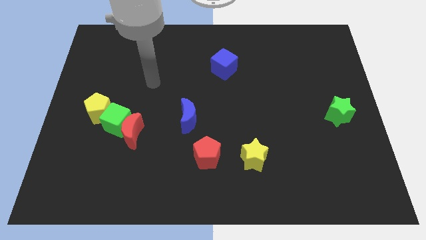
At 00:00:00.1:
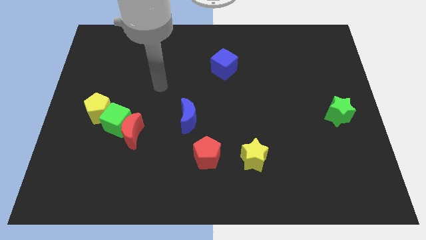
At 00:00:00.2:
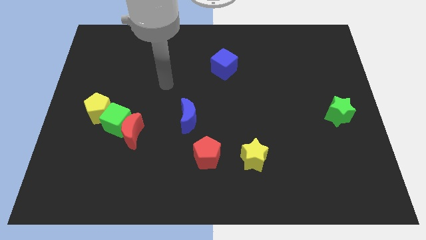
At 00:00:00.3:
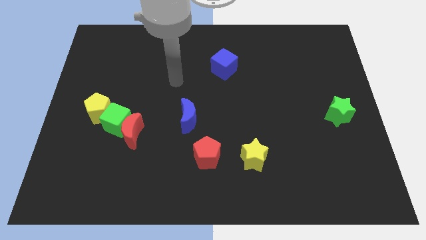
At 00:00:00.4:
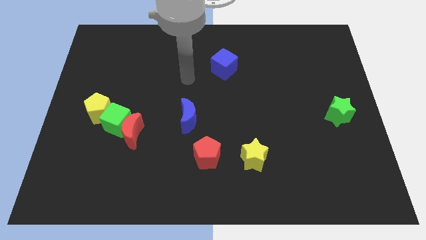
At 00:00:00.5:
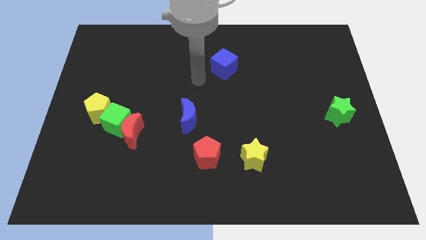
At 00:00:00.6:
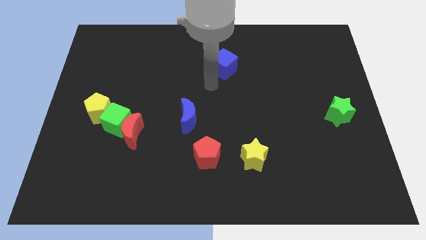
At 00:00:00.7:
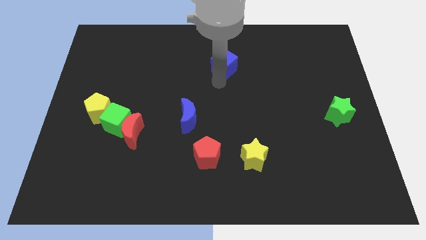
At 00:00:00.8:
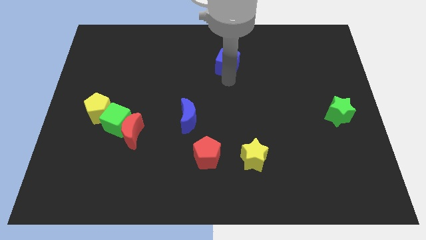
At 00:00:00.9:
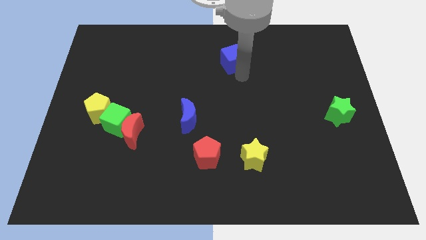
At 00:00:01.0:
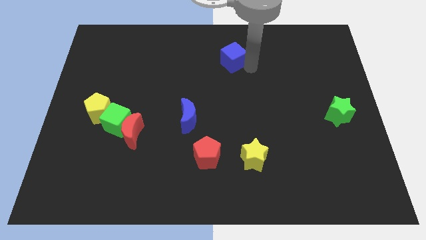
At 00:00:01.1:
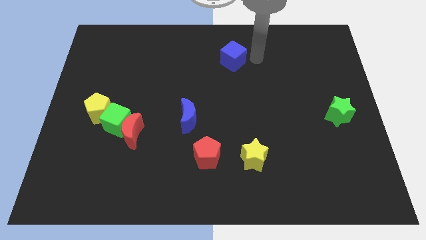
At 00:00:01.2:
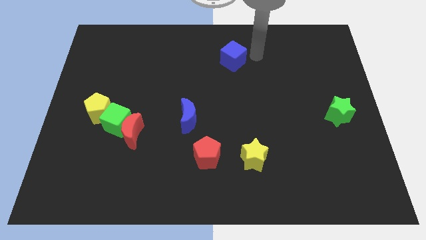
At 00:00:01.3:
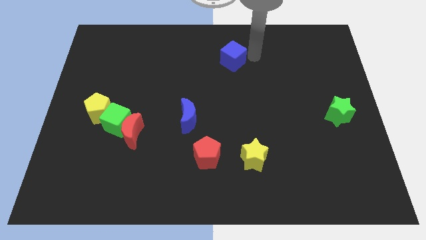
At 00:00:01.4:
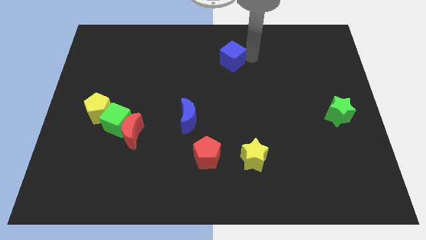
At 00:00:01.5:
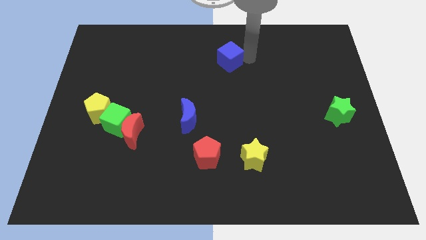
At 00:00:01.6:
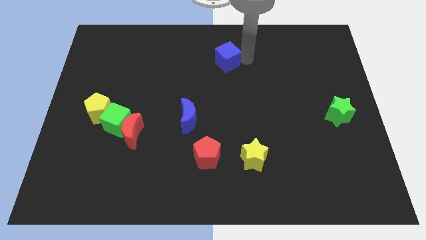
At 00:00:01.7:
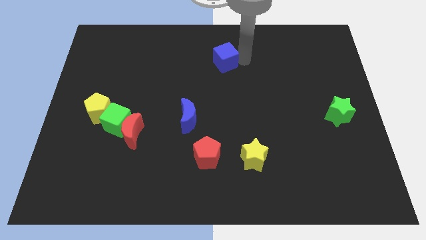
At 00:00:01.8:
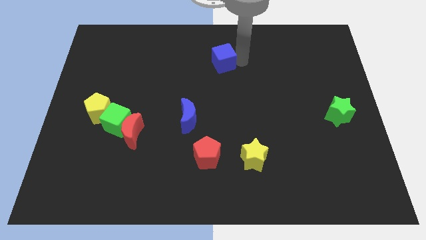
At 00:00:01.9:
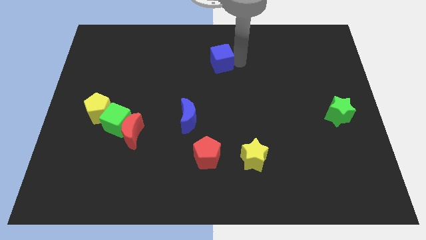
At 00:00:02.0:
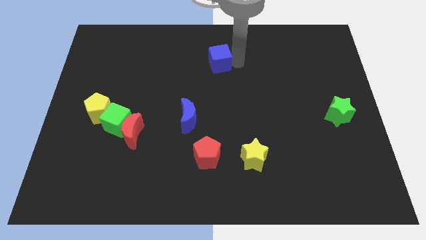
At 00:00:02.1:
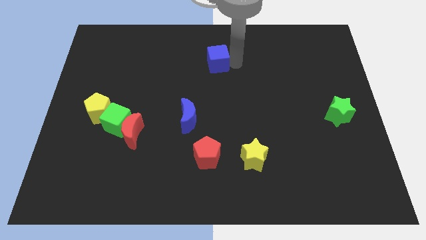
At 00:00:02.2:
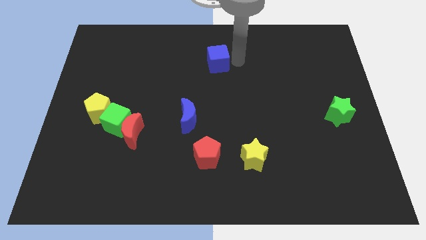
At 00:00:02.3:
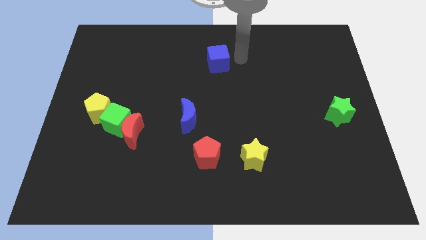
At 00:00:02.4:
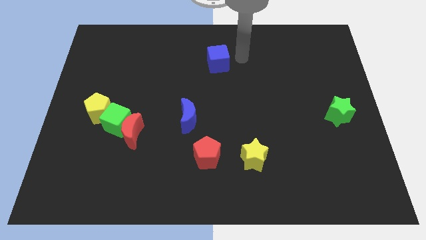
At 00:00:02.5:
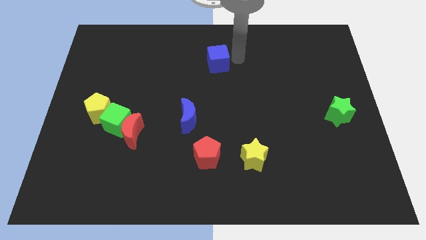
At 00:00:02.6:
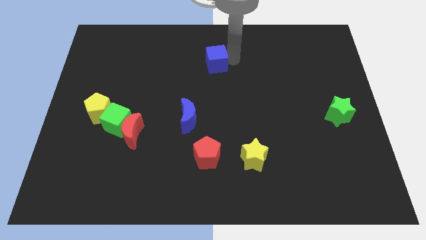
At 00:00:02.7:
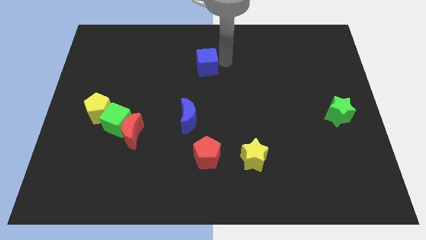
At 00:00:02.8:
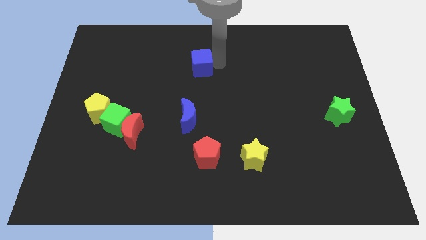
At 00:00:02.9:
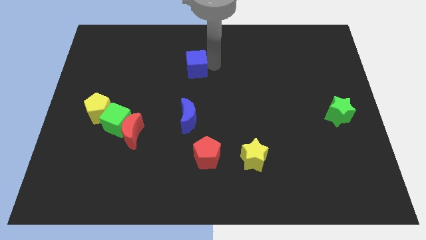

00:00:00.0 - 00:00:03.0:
push the blue cube left slightly

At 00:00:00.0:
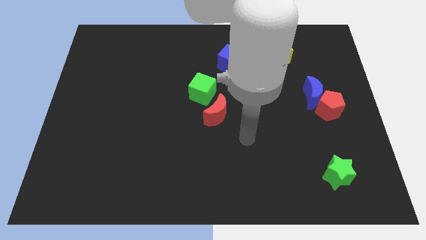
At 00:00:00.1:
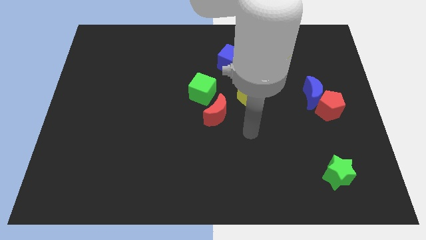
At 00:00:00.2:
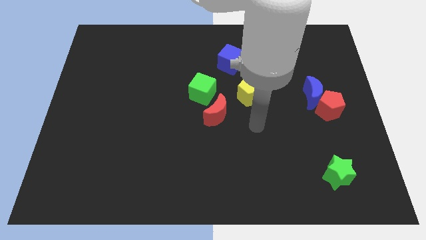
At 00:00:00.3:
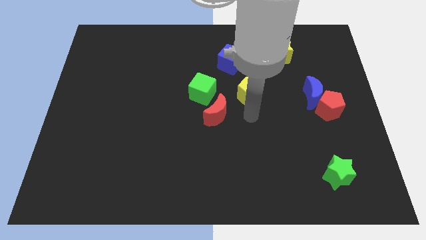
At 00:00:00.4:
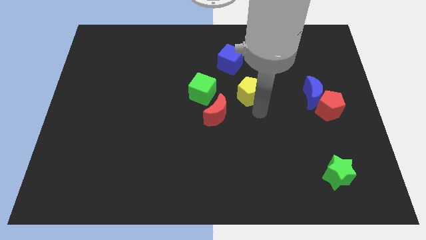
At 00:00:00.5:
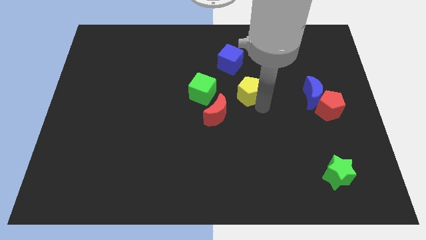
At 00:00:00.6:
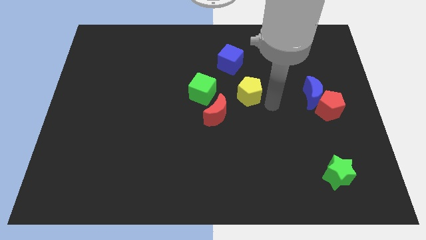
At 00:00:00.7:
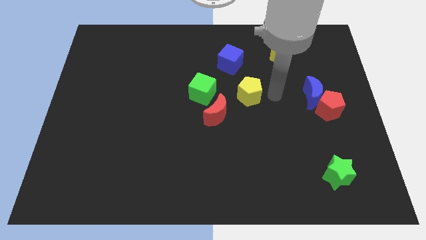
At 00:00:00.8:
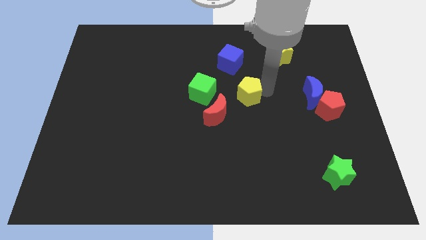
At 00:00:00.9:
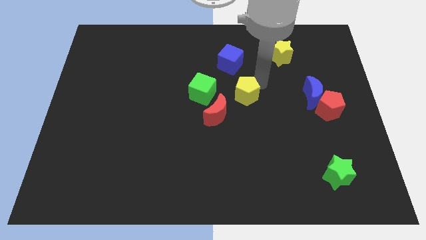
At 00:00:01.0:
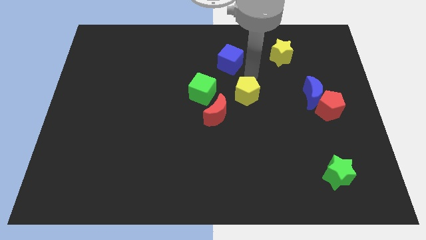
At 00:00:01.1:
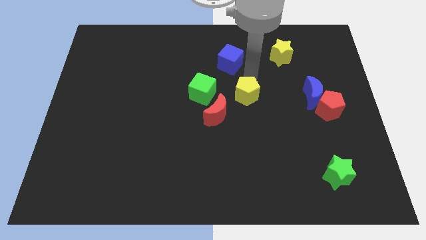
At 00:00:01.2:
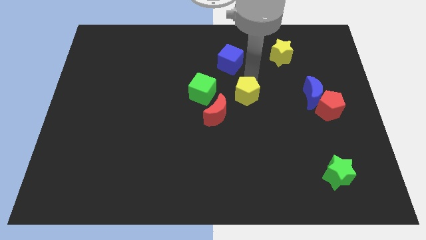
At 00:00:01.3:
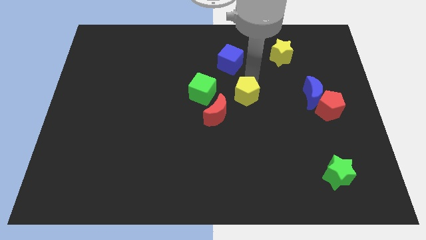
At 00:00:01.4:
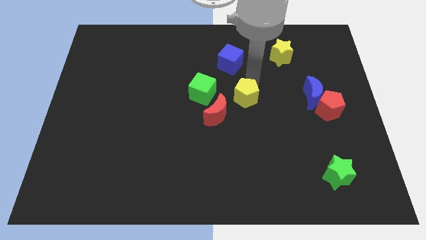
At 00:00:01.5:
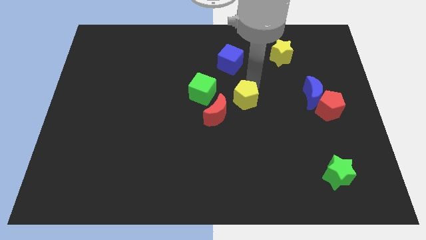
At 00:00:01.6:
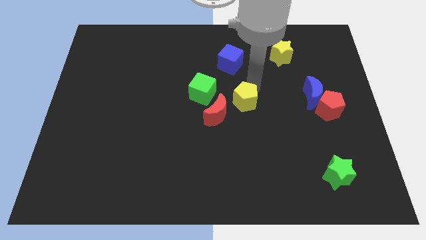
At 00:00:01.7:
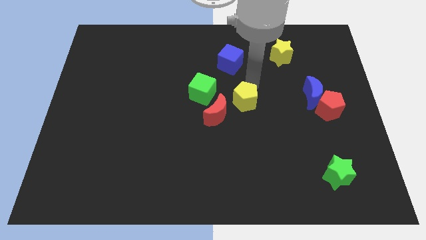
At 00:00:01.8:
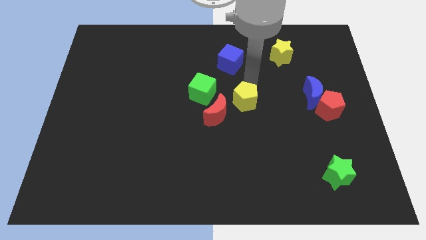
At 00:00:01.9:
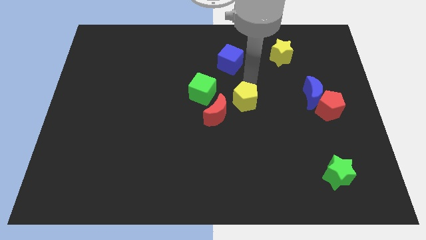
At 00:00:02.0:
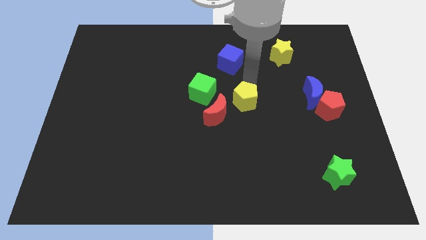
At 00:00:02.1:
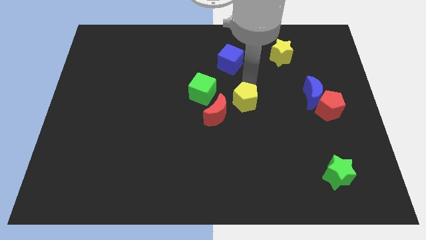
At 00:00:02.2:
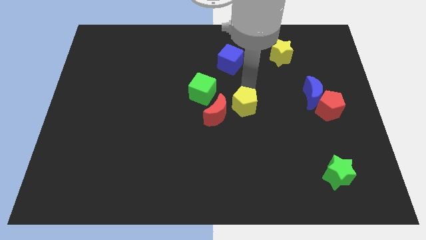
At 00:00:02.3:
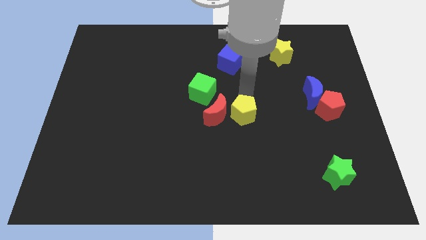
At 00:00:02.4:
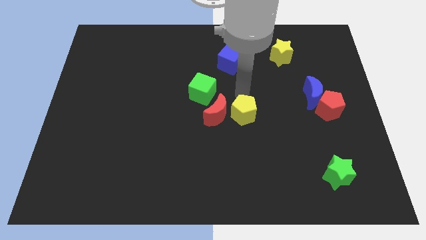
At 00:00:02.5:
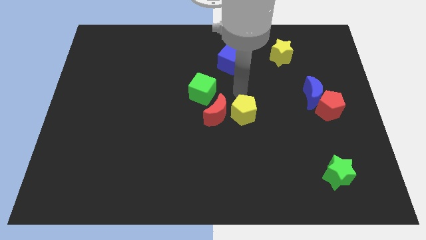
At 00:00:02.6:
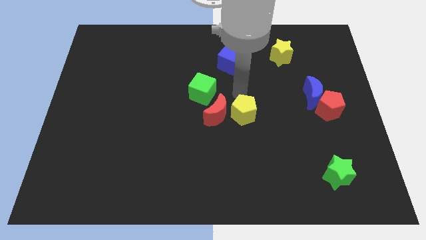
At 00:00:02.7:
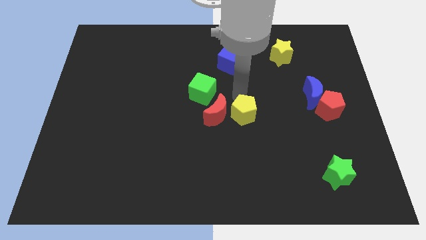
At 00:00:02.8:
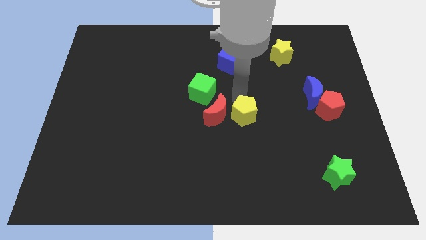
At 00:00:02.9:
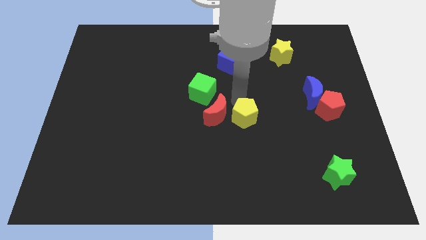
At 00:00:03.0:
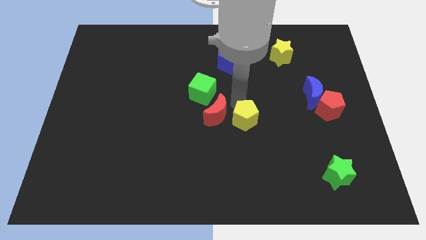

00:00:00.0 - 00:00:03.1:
slightly move the yellow pentagon down

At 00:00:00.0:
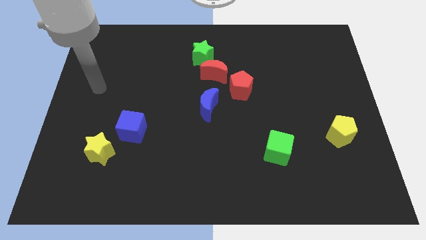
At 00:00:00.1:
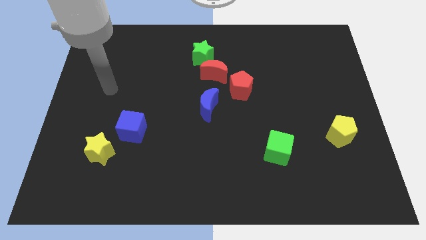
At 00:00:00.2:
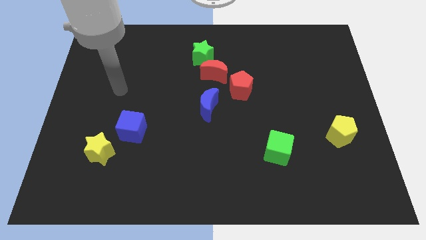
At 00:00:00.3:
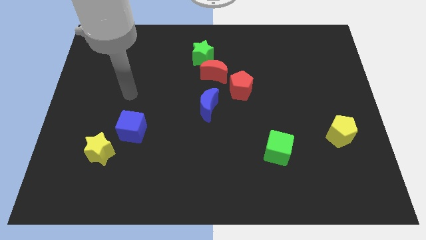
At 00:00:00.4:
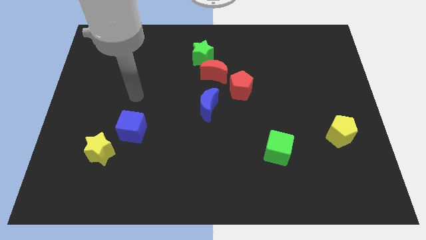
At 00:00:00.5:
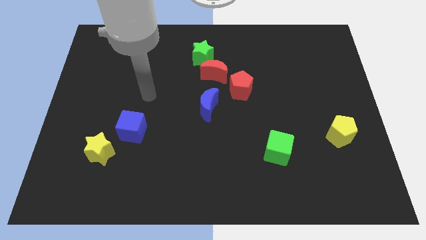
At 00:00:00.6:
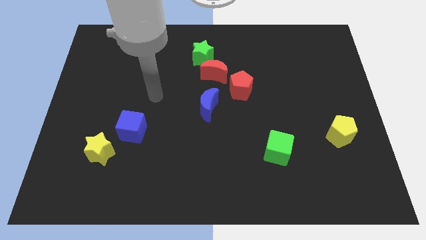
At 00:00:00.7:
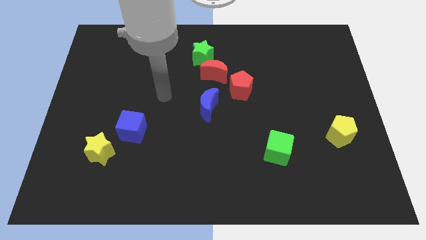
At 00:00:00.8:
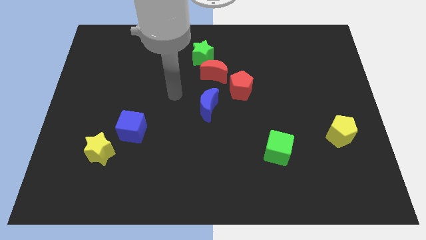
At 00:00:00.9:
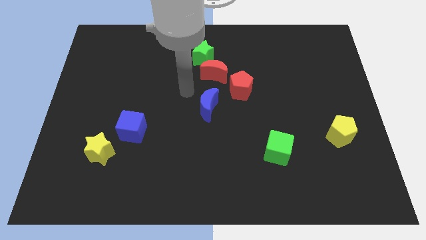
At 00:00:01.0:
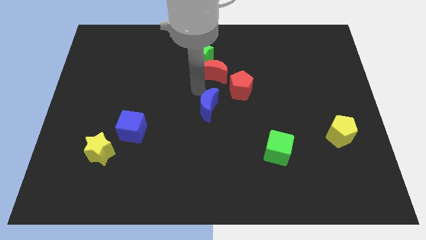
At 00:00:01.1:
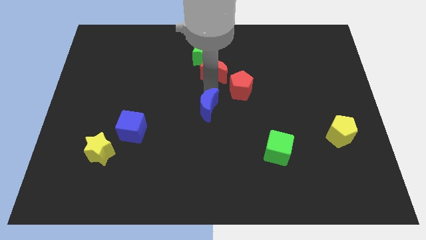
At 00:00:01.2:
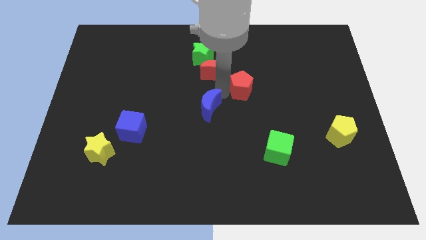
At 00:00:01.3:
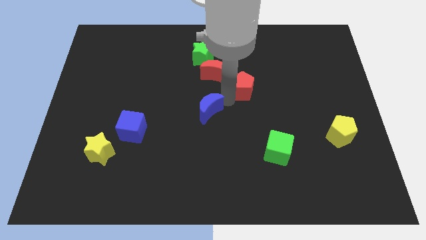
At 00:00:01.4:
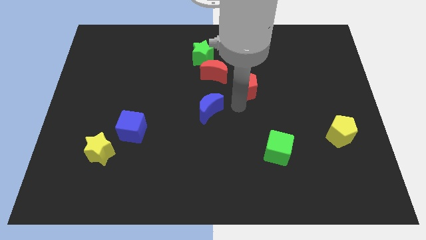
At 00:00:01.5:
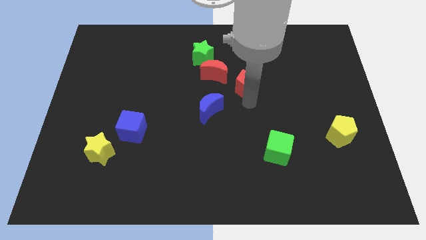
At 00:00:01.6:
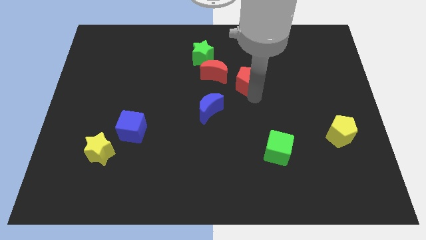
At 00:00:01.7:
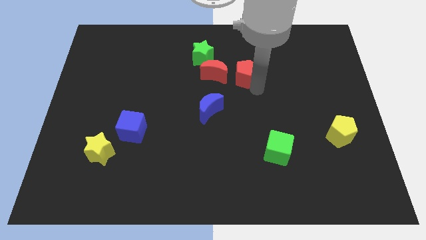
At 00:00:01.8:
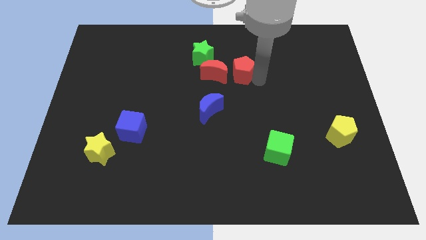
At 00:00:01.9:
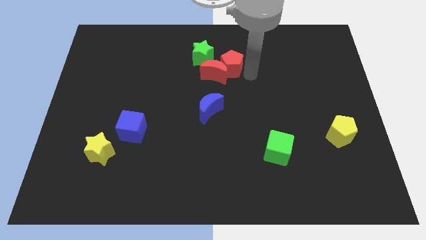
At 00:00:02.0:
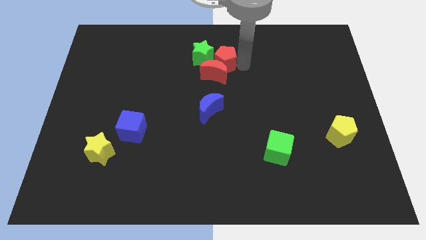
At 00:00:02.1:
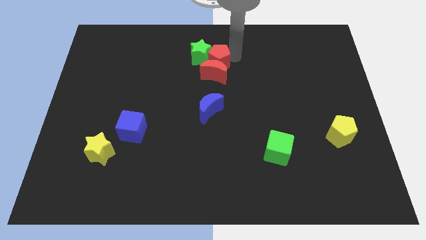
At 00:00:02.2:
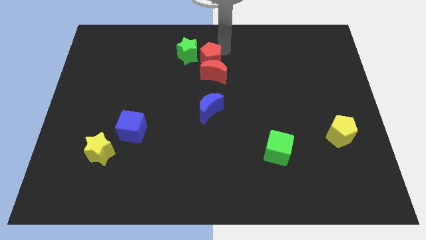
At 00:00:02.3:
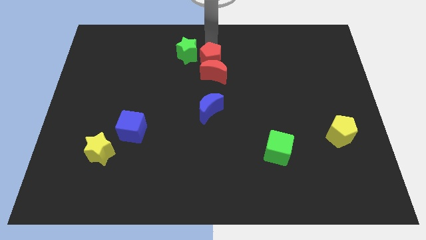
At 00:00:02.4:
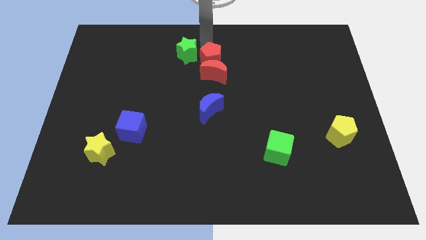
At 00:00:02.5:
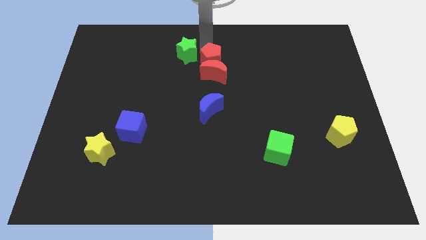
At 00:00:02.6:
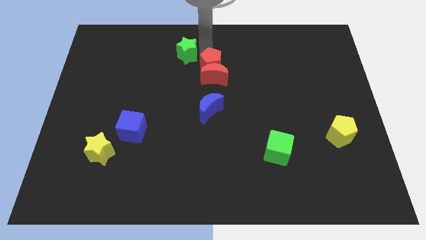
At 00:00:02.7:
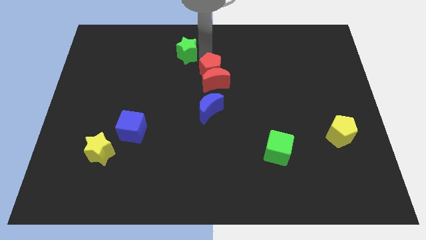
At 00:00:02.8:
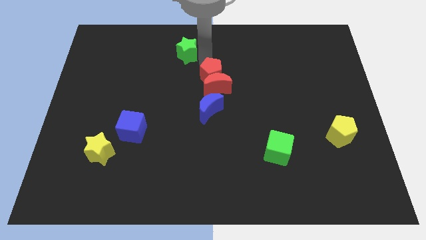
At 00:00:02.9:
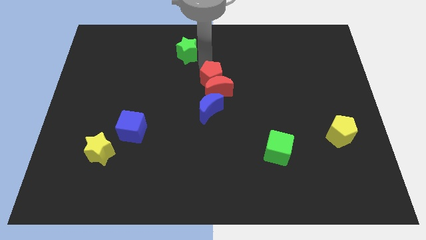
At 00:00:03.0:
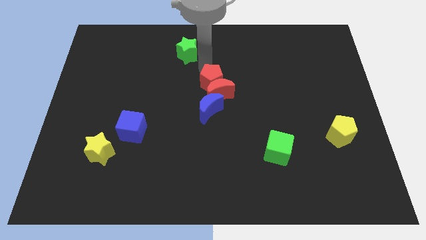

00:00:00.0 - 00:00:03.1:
slightly push the red pentagon to the left
